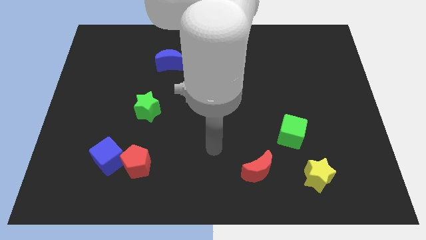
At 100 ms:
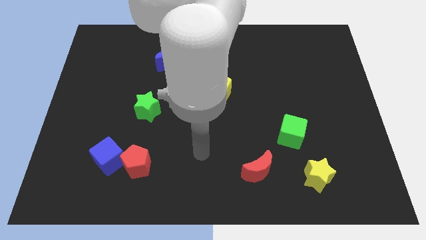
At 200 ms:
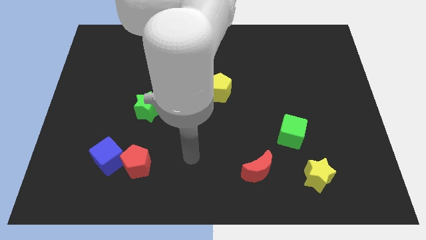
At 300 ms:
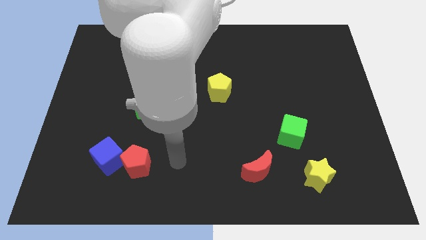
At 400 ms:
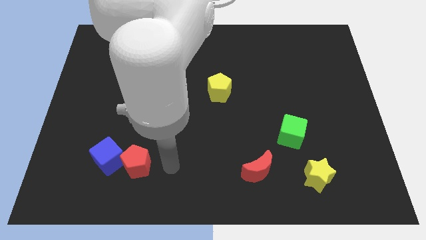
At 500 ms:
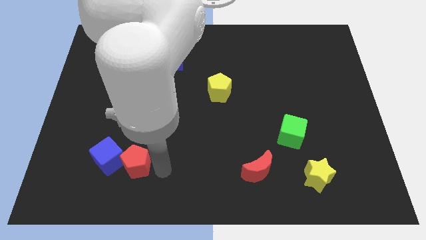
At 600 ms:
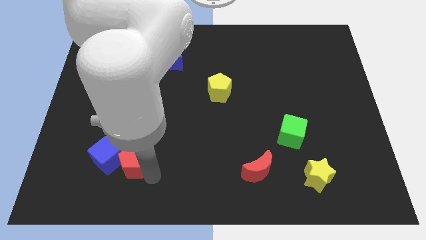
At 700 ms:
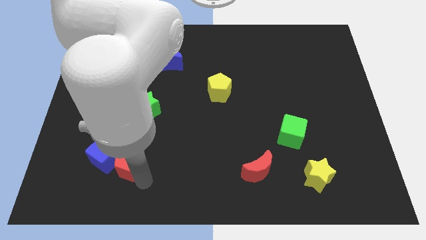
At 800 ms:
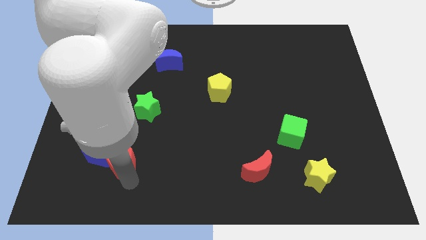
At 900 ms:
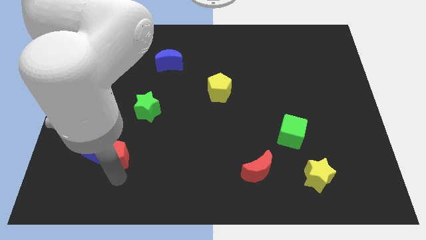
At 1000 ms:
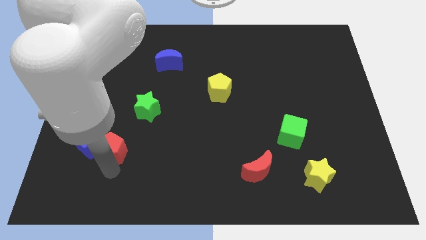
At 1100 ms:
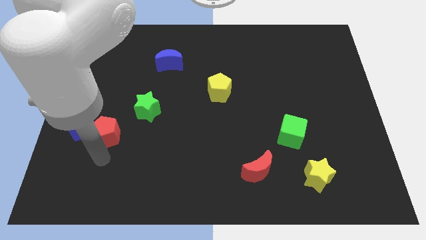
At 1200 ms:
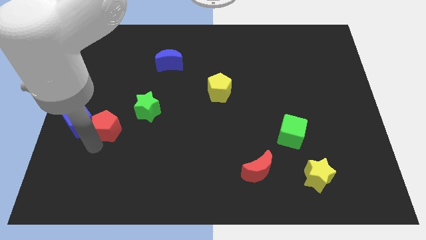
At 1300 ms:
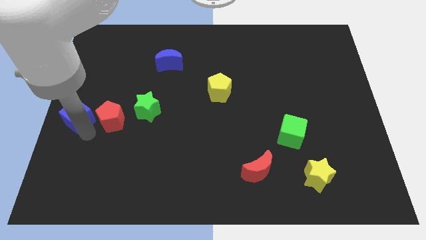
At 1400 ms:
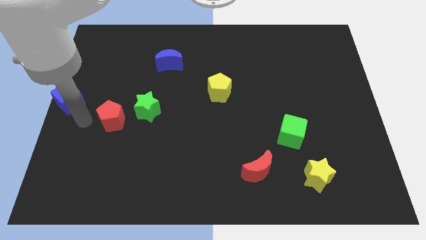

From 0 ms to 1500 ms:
move the red pentagon away from the blue cube

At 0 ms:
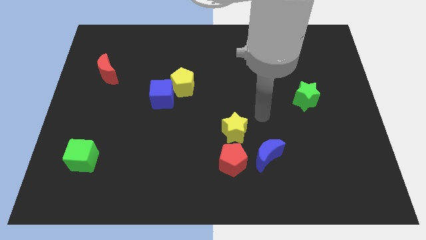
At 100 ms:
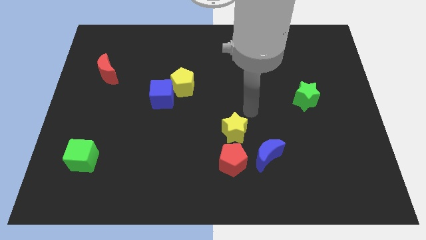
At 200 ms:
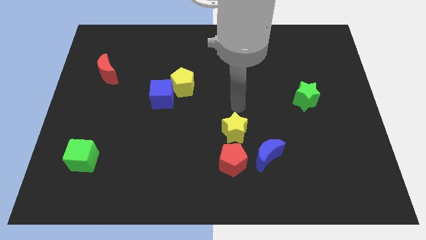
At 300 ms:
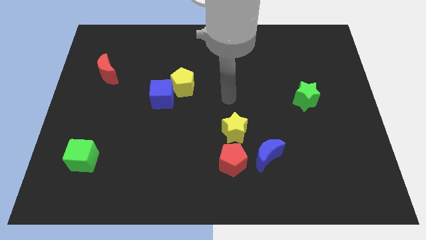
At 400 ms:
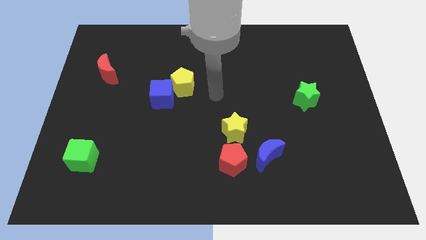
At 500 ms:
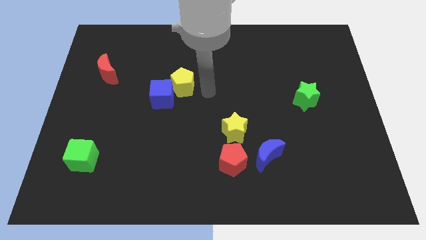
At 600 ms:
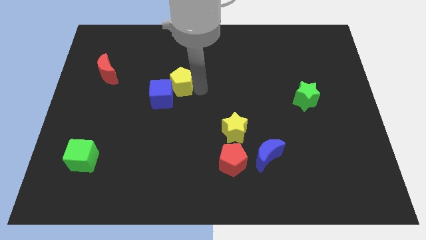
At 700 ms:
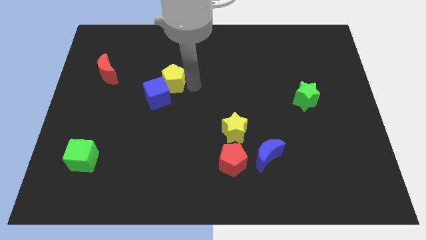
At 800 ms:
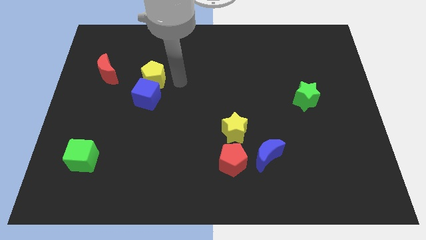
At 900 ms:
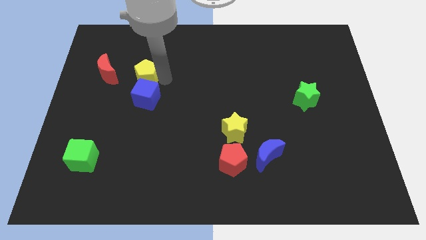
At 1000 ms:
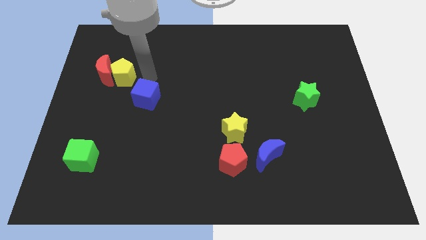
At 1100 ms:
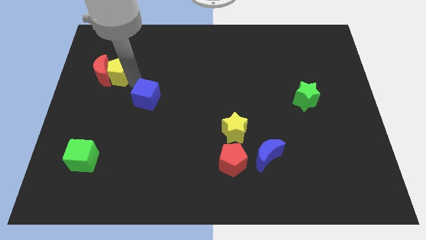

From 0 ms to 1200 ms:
separate the blue cube from the yellow pentagon

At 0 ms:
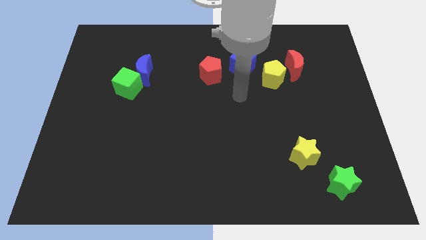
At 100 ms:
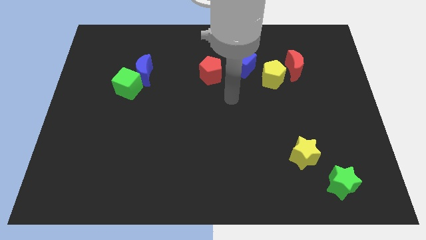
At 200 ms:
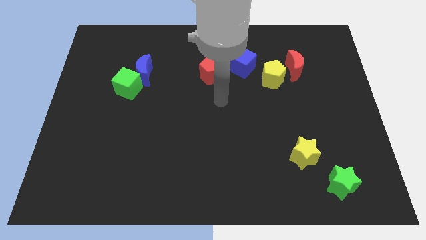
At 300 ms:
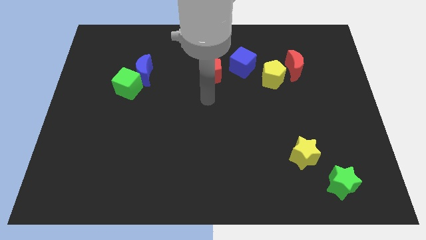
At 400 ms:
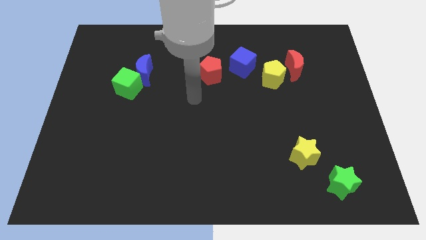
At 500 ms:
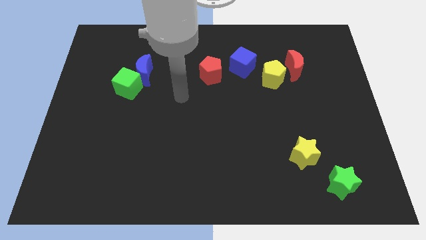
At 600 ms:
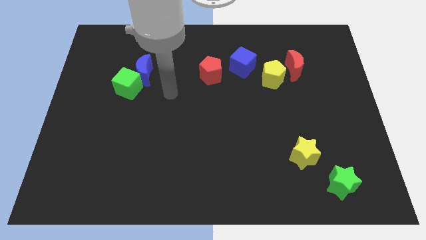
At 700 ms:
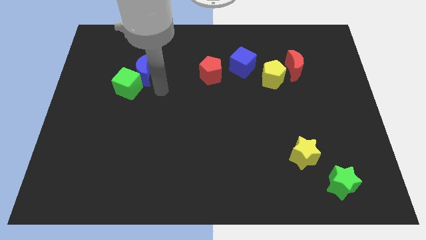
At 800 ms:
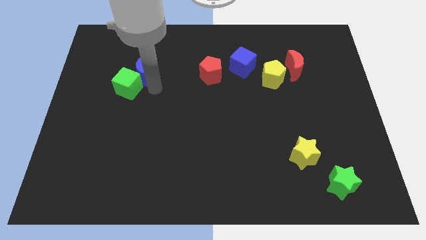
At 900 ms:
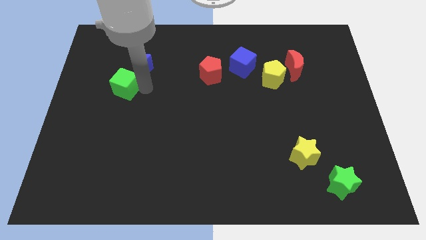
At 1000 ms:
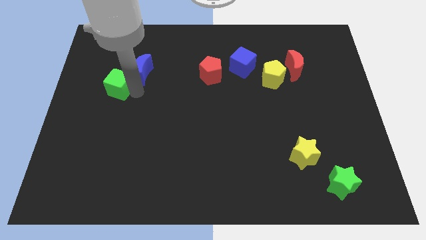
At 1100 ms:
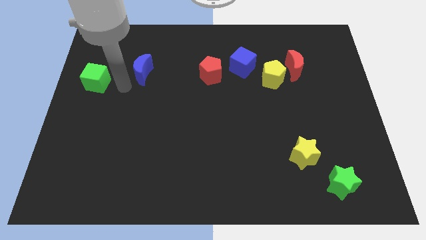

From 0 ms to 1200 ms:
separate the blue moon from the green cube

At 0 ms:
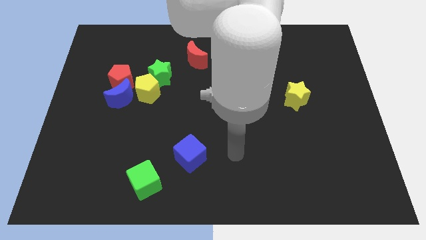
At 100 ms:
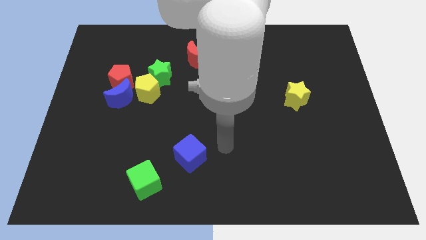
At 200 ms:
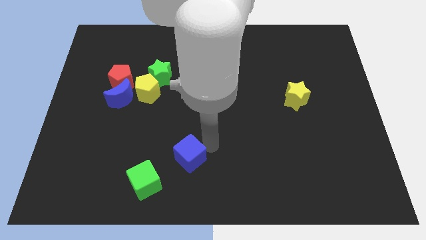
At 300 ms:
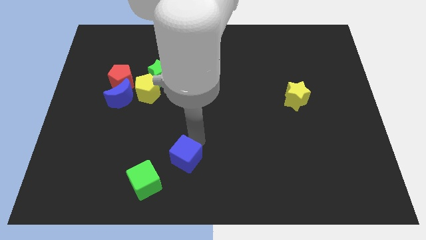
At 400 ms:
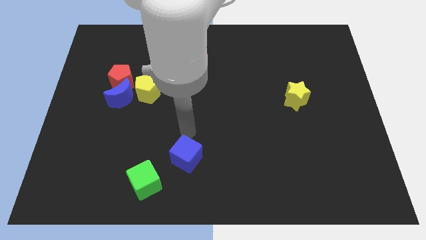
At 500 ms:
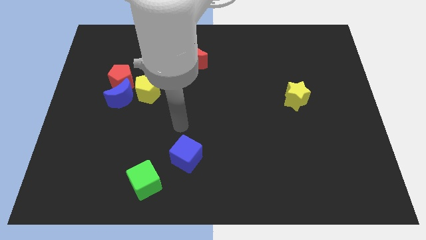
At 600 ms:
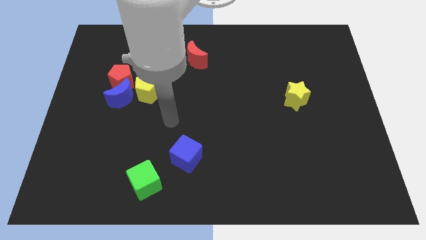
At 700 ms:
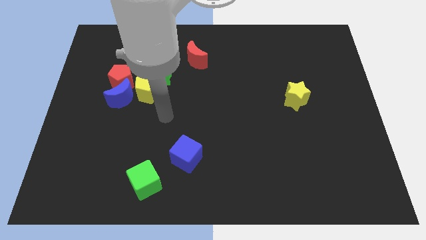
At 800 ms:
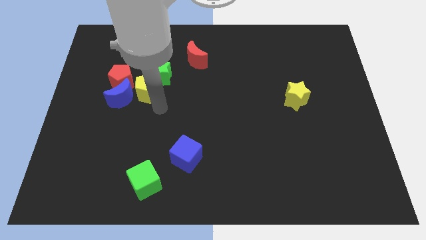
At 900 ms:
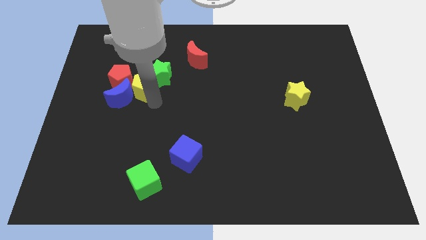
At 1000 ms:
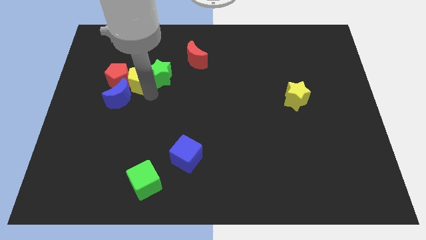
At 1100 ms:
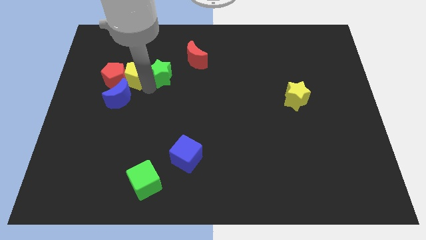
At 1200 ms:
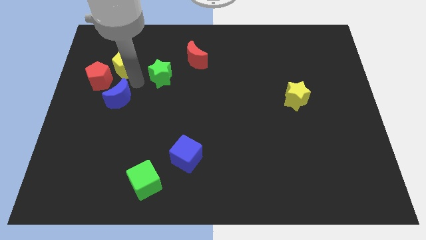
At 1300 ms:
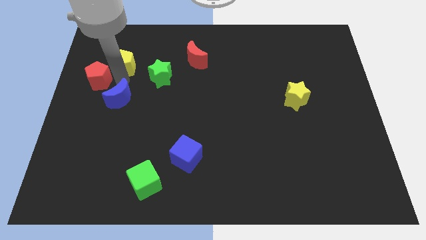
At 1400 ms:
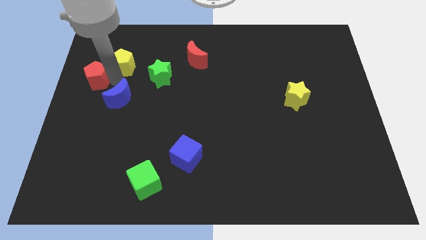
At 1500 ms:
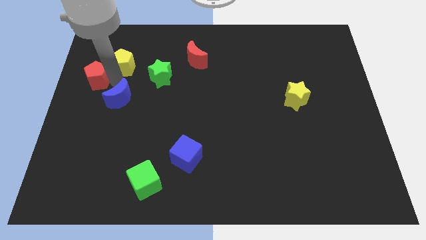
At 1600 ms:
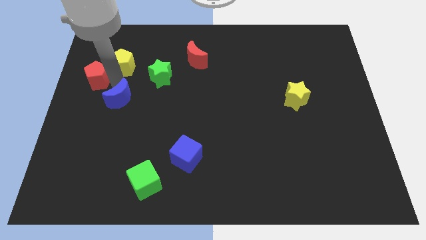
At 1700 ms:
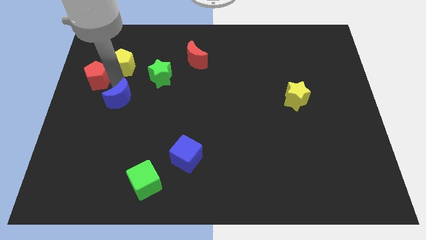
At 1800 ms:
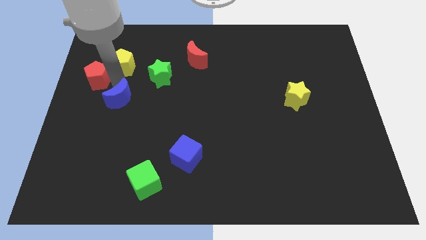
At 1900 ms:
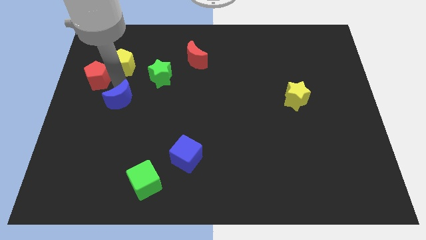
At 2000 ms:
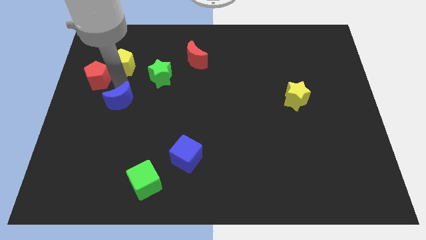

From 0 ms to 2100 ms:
separate the blue moon from the red pentagon and yellow pentagon

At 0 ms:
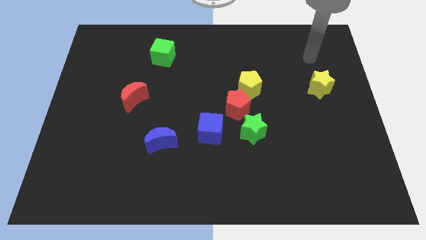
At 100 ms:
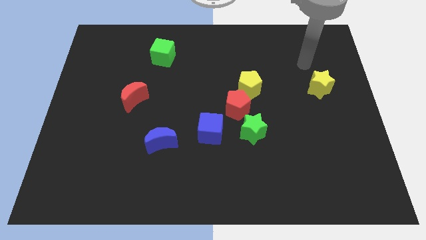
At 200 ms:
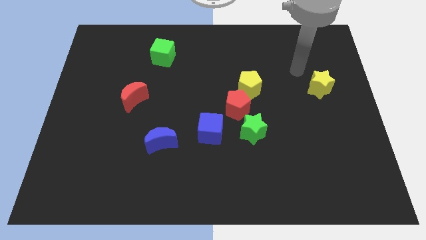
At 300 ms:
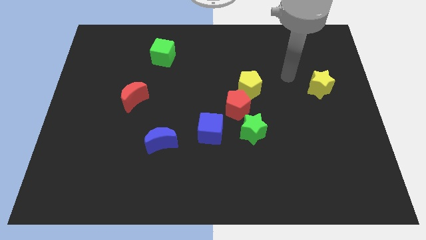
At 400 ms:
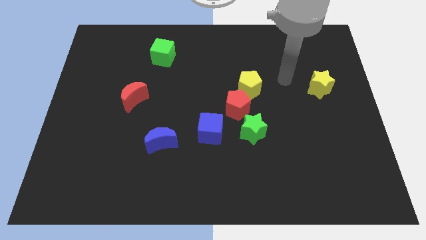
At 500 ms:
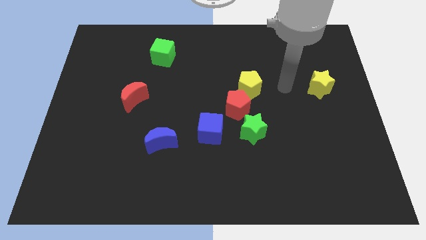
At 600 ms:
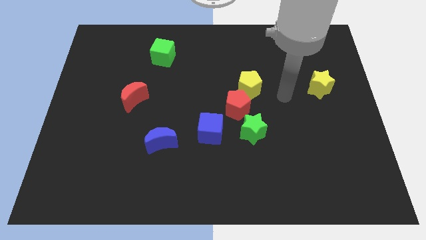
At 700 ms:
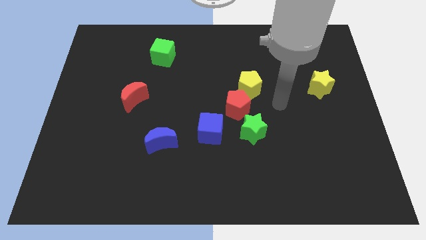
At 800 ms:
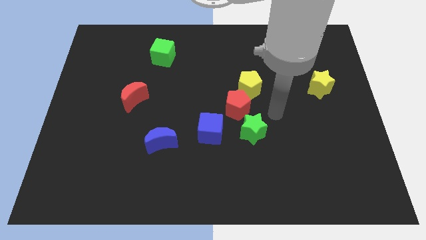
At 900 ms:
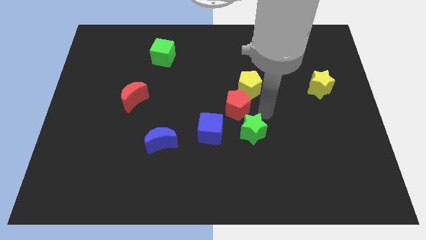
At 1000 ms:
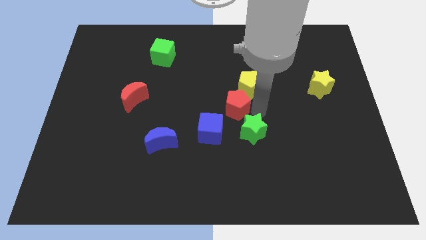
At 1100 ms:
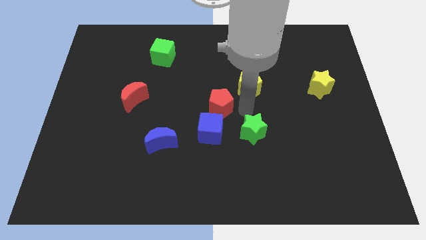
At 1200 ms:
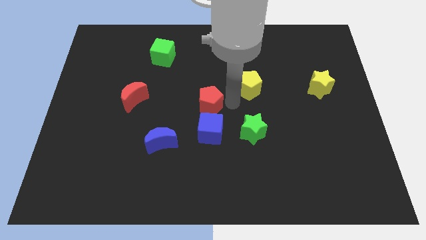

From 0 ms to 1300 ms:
separate the yellow pentagon from the red pentagon

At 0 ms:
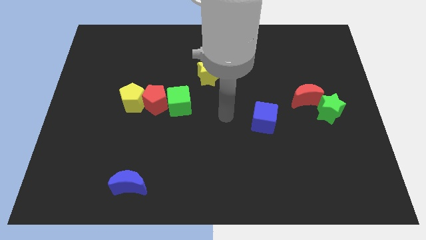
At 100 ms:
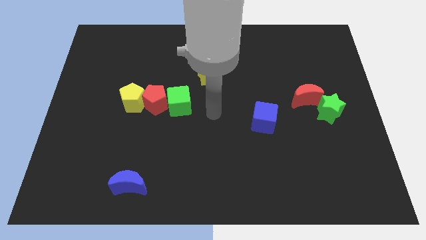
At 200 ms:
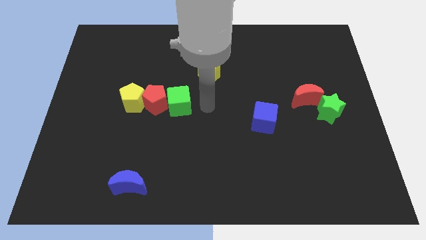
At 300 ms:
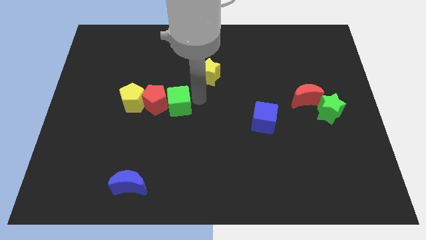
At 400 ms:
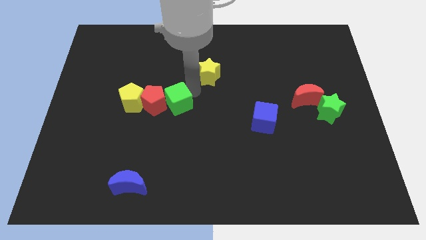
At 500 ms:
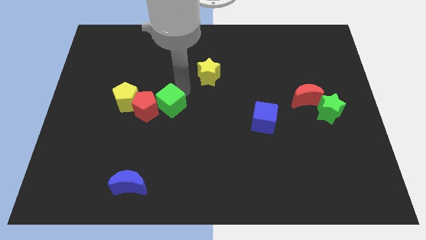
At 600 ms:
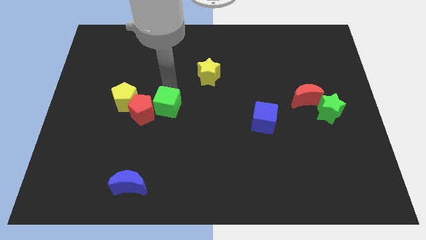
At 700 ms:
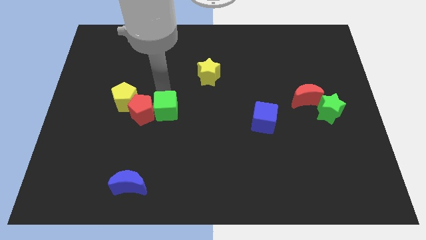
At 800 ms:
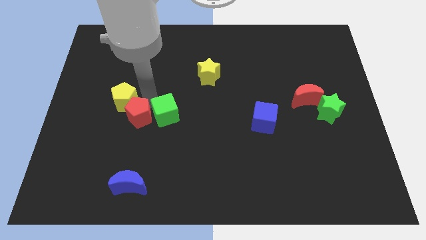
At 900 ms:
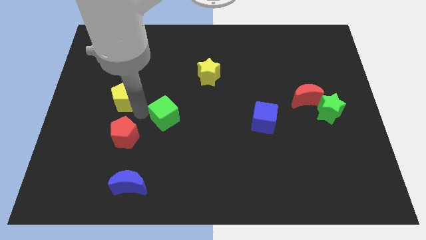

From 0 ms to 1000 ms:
separate the green cube from the red pentagon

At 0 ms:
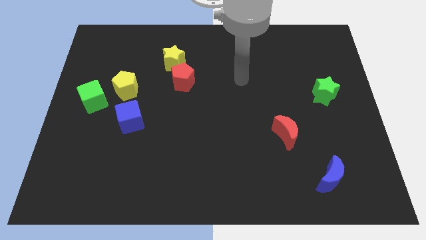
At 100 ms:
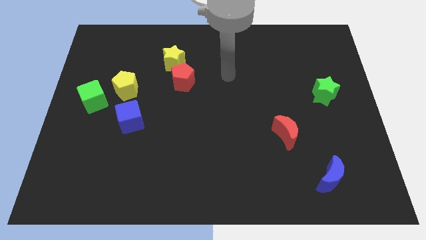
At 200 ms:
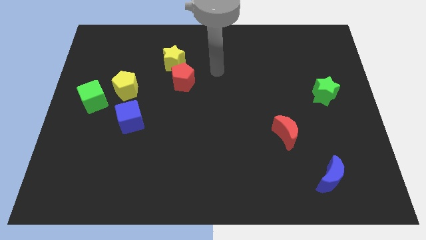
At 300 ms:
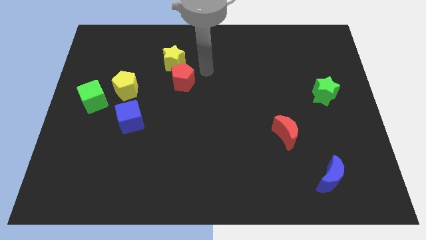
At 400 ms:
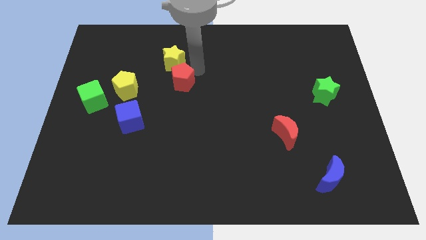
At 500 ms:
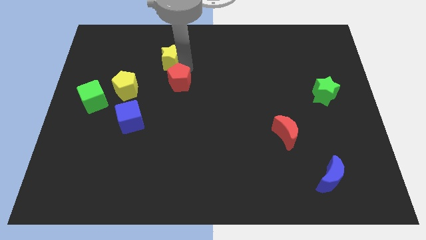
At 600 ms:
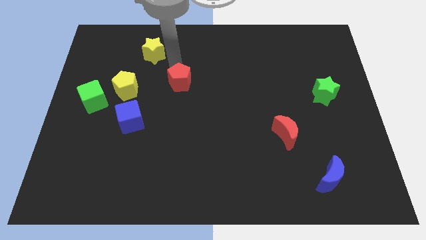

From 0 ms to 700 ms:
separate the red pentagon from the yellow star

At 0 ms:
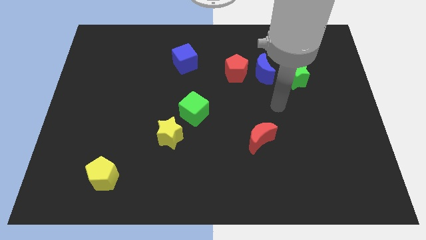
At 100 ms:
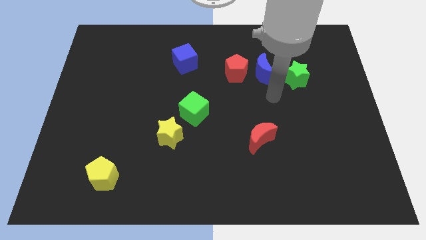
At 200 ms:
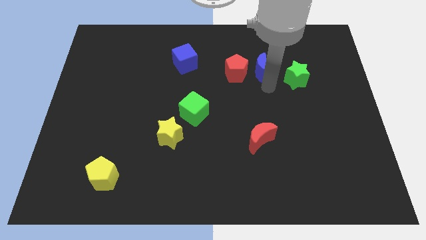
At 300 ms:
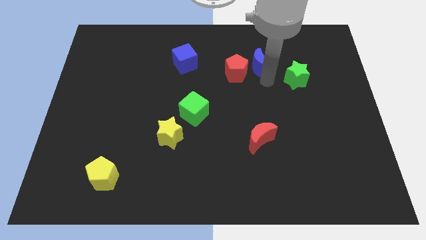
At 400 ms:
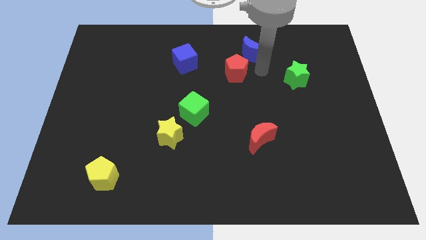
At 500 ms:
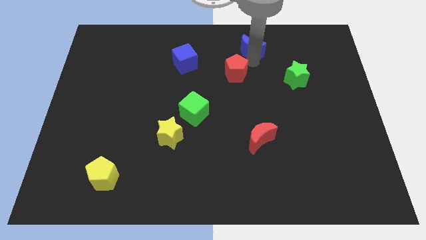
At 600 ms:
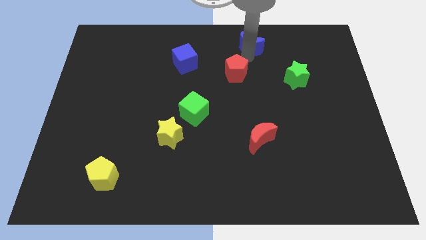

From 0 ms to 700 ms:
separate the red pentagon from the blue moon
